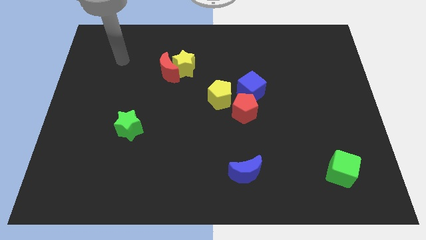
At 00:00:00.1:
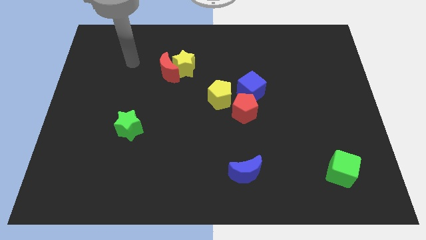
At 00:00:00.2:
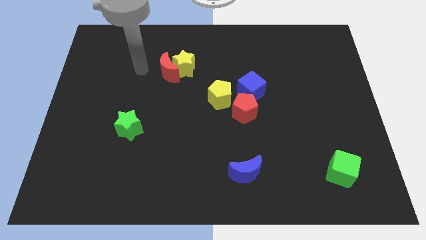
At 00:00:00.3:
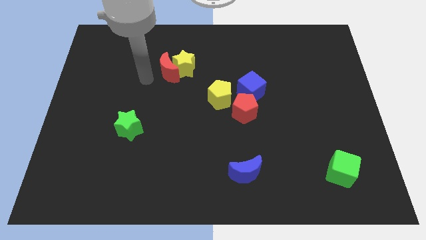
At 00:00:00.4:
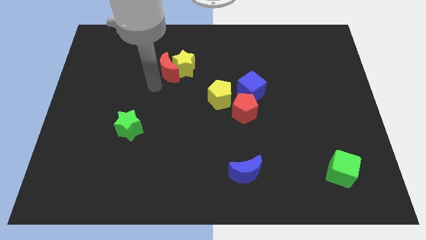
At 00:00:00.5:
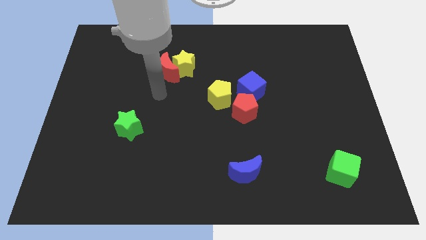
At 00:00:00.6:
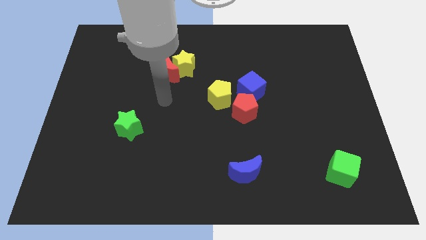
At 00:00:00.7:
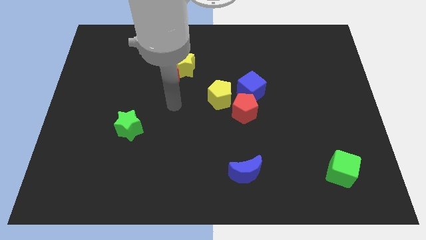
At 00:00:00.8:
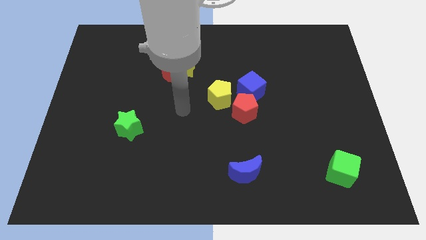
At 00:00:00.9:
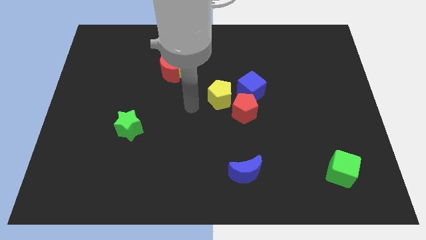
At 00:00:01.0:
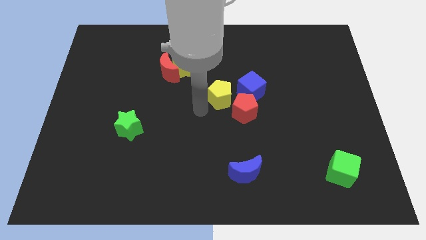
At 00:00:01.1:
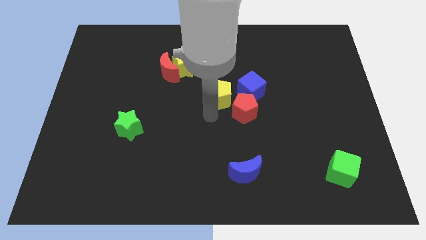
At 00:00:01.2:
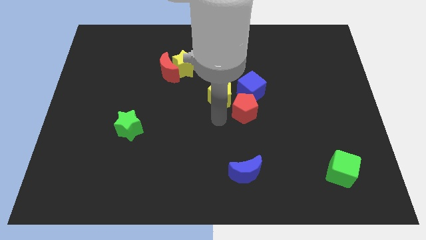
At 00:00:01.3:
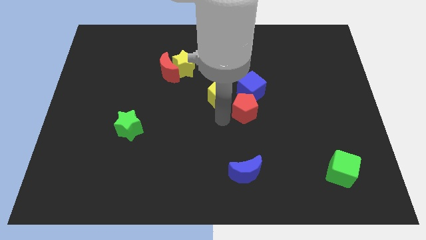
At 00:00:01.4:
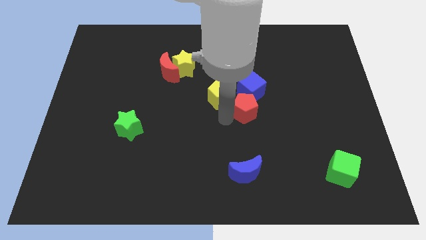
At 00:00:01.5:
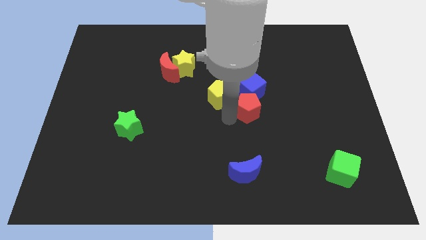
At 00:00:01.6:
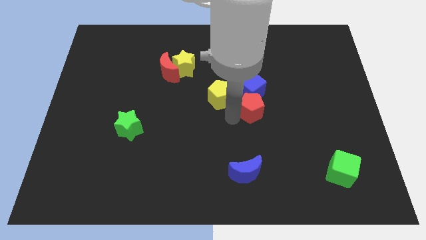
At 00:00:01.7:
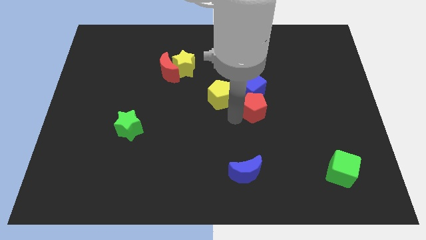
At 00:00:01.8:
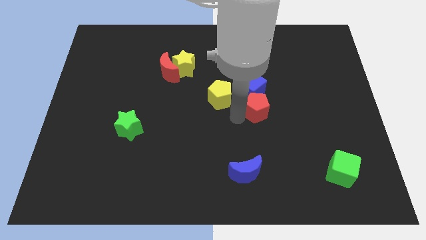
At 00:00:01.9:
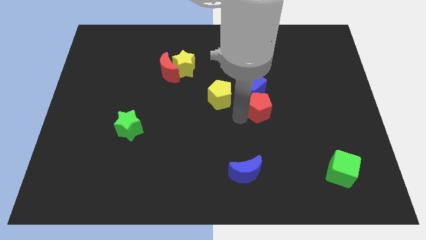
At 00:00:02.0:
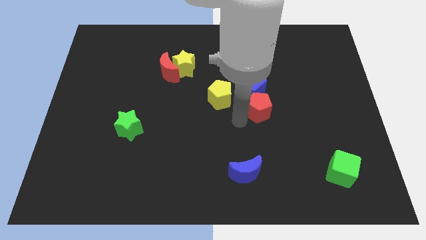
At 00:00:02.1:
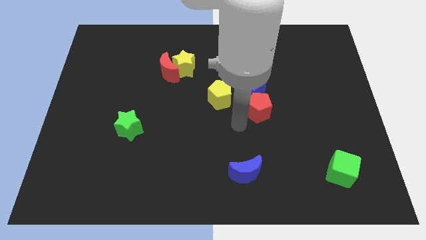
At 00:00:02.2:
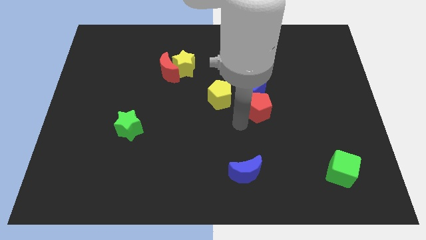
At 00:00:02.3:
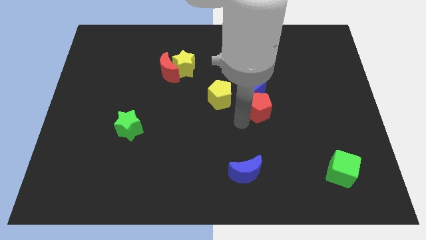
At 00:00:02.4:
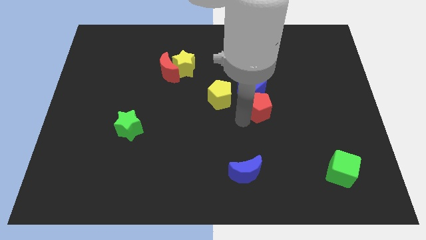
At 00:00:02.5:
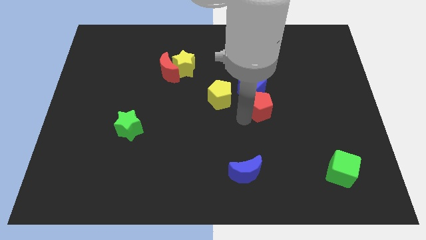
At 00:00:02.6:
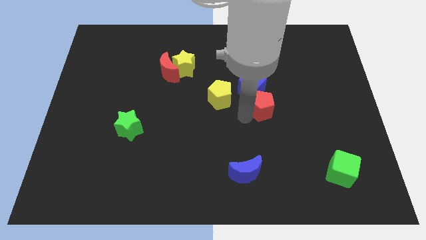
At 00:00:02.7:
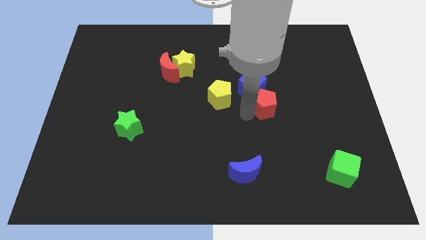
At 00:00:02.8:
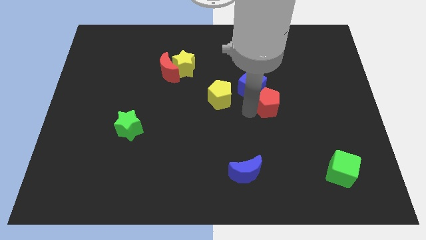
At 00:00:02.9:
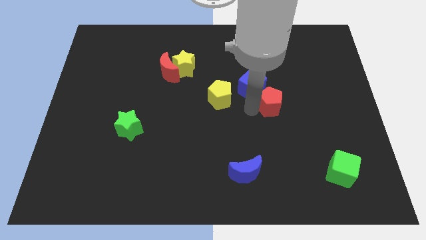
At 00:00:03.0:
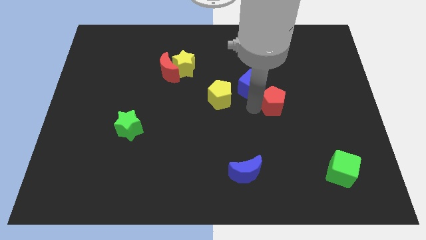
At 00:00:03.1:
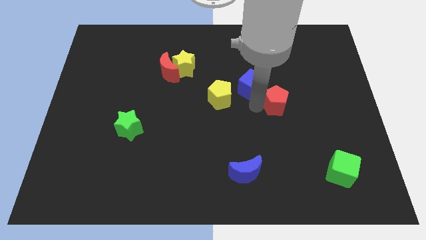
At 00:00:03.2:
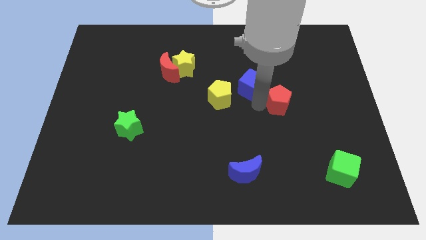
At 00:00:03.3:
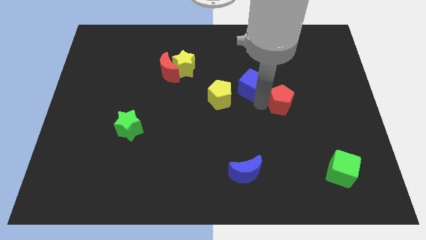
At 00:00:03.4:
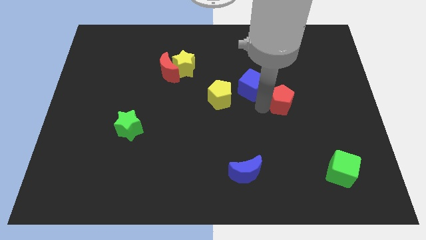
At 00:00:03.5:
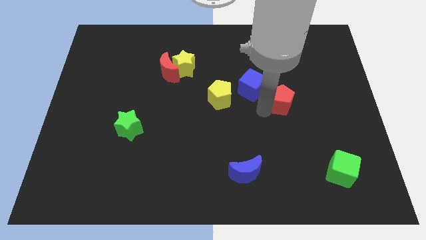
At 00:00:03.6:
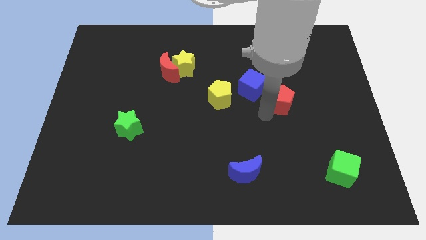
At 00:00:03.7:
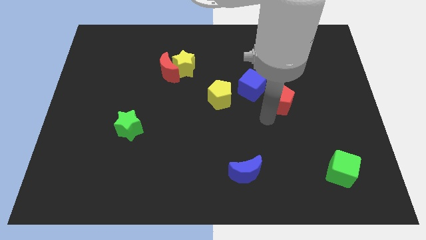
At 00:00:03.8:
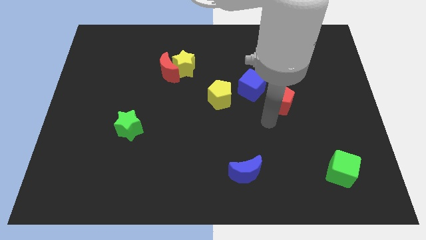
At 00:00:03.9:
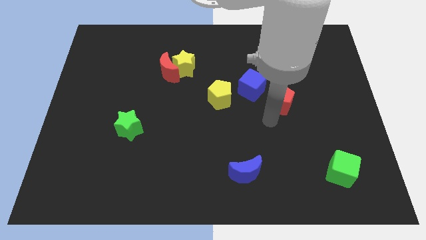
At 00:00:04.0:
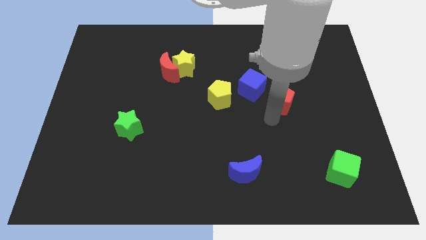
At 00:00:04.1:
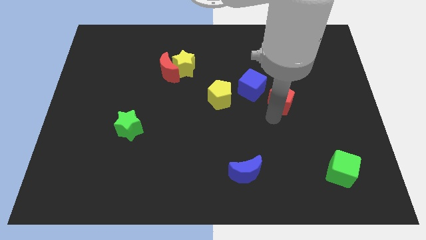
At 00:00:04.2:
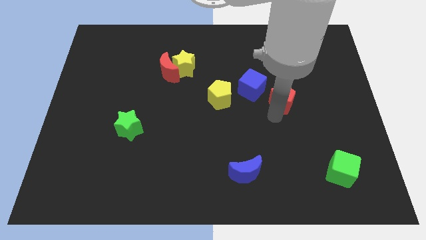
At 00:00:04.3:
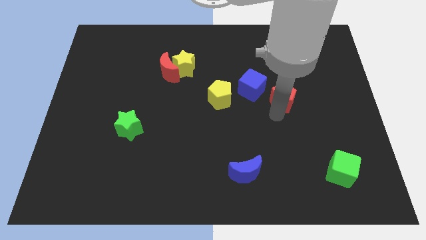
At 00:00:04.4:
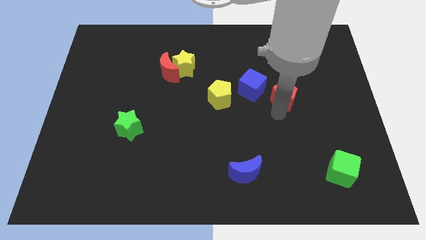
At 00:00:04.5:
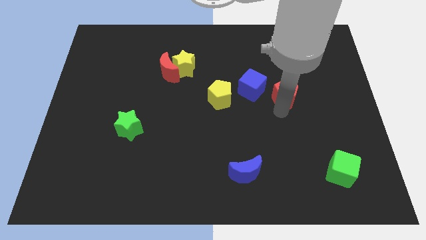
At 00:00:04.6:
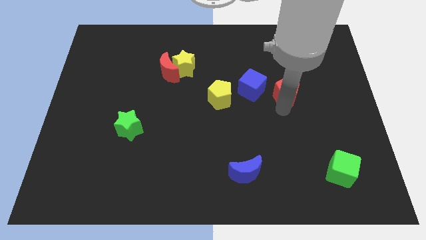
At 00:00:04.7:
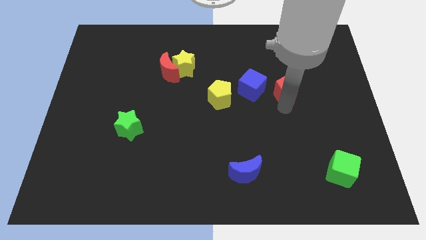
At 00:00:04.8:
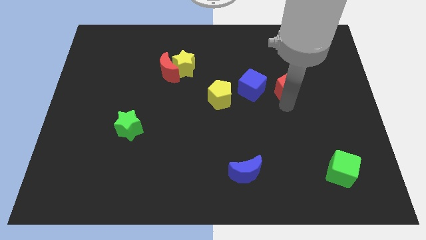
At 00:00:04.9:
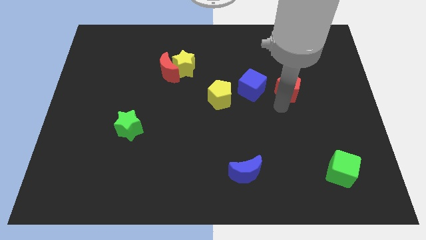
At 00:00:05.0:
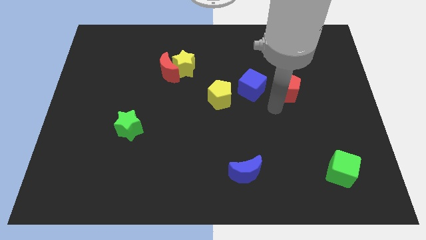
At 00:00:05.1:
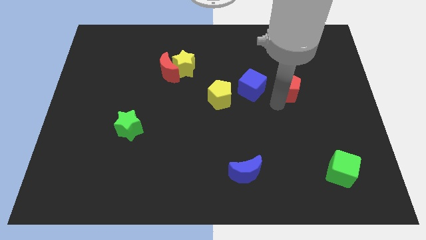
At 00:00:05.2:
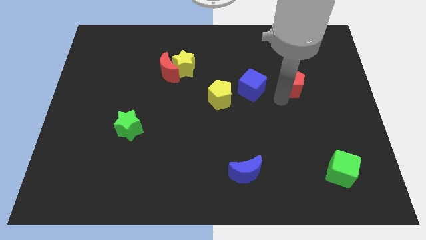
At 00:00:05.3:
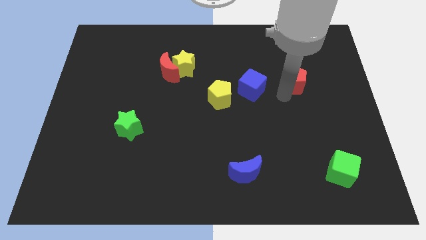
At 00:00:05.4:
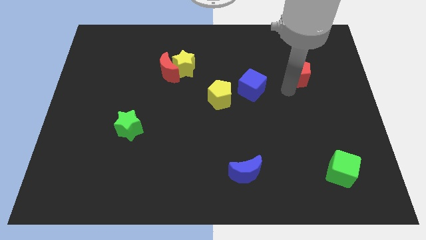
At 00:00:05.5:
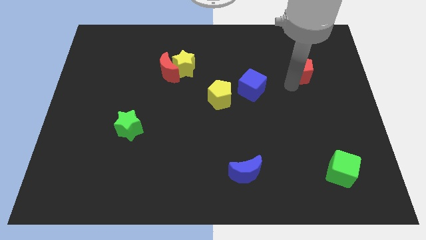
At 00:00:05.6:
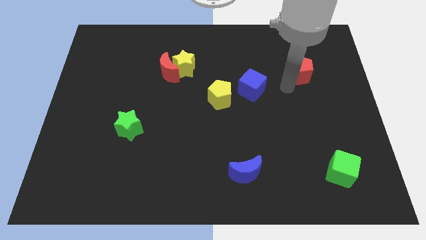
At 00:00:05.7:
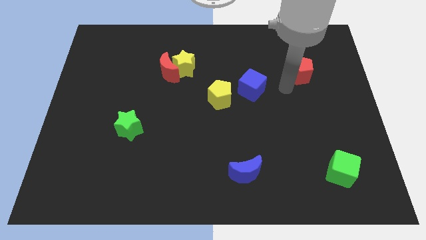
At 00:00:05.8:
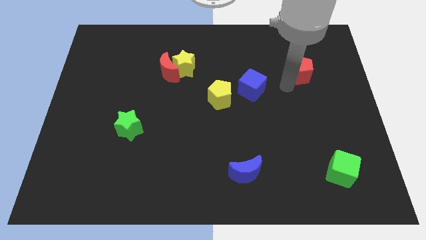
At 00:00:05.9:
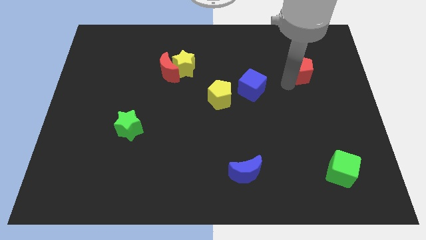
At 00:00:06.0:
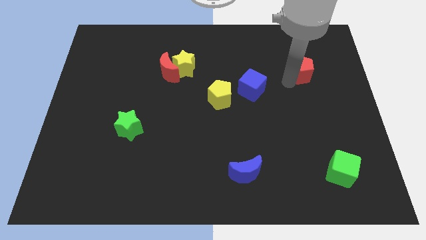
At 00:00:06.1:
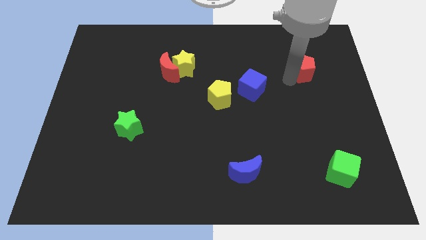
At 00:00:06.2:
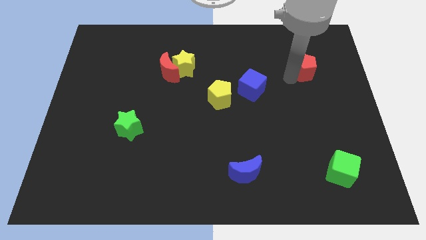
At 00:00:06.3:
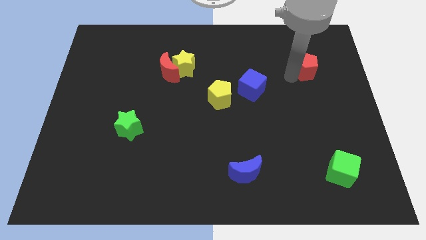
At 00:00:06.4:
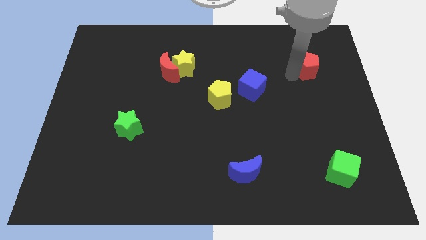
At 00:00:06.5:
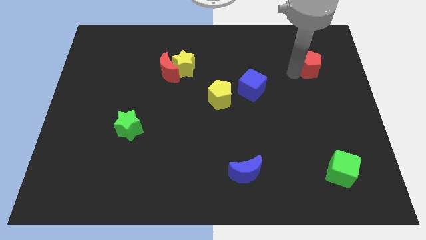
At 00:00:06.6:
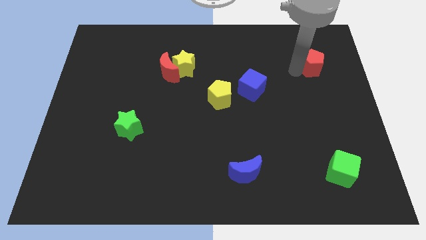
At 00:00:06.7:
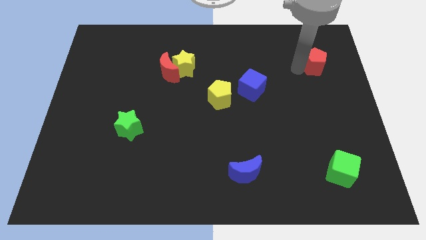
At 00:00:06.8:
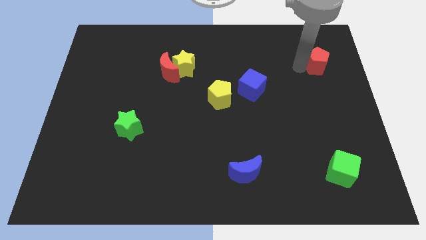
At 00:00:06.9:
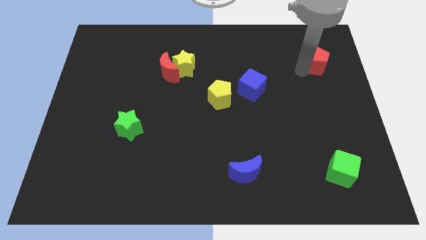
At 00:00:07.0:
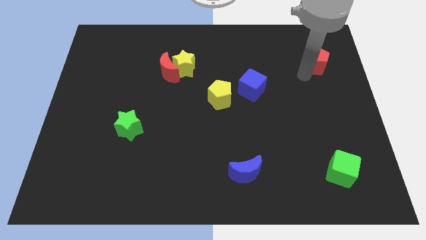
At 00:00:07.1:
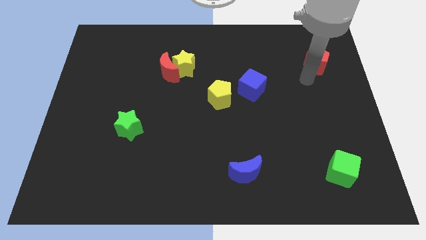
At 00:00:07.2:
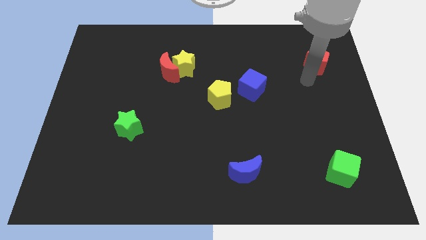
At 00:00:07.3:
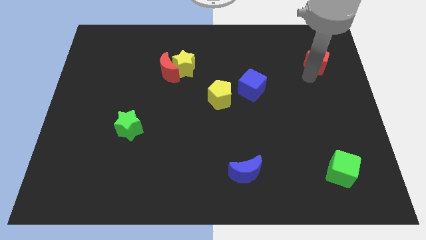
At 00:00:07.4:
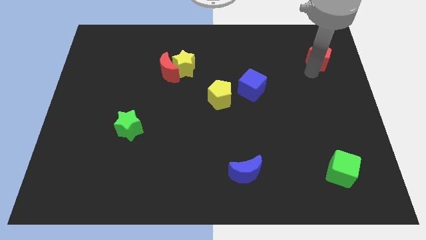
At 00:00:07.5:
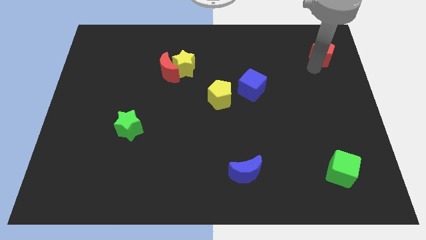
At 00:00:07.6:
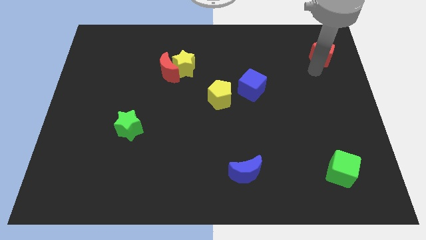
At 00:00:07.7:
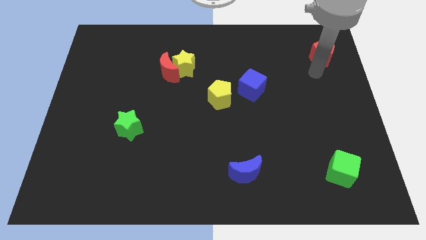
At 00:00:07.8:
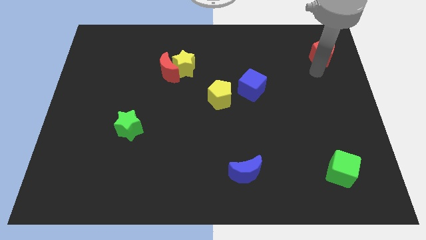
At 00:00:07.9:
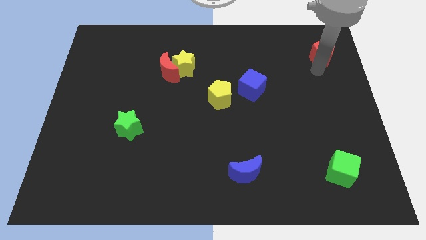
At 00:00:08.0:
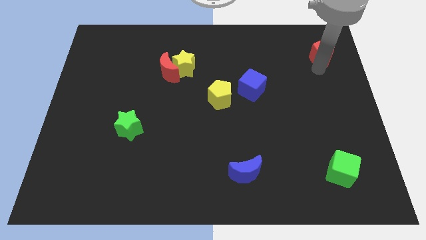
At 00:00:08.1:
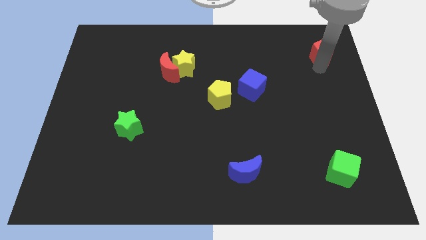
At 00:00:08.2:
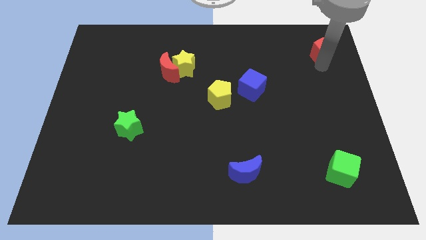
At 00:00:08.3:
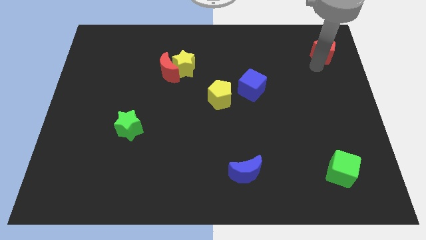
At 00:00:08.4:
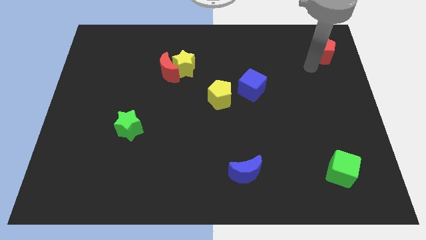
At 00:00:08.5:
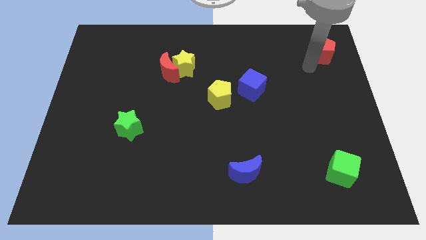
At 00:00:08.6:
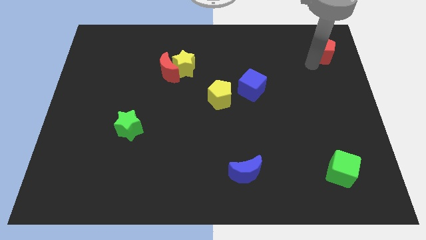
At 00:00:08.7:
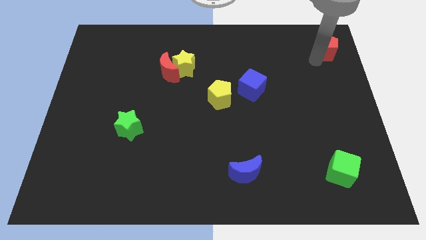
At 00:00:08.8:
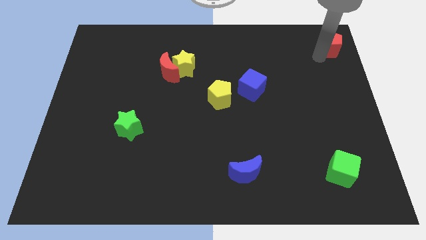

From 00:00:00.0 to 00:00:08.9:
push the red pentagon to the top right corner
